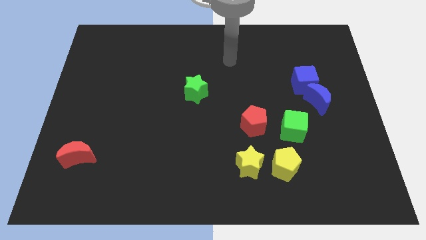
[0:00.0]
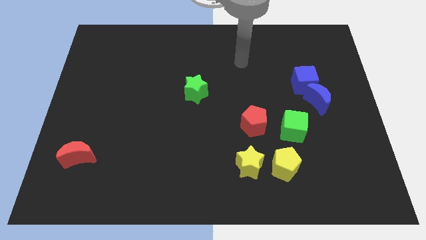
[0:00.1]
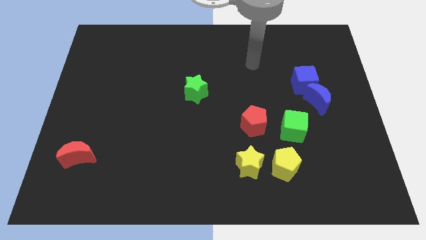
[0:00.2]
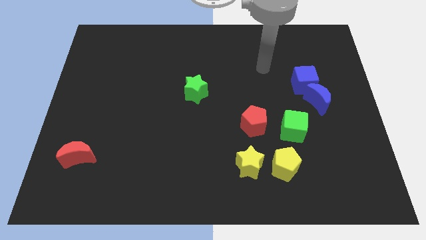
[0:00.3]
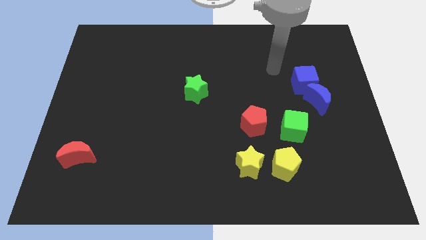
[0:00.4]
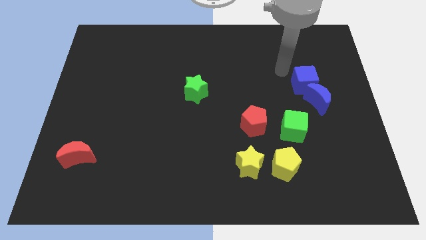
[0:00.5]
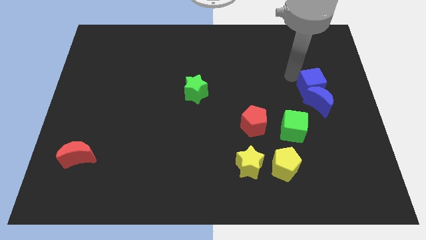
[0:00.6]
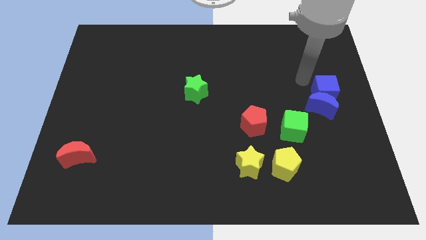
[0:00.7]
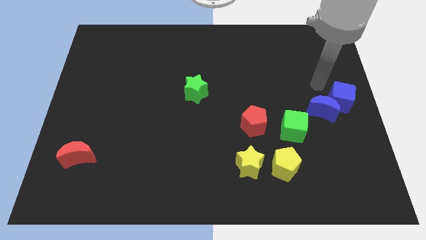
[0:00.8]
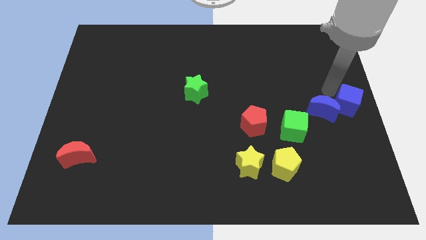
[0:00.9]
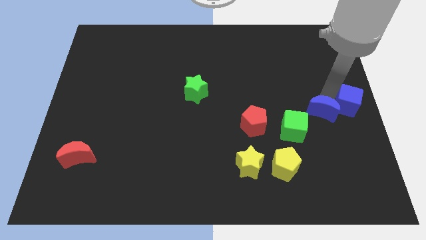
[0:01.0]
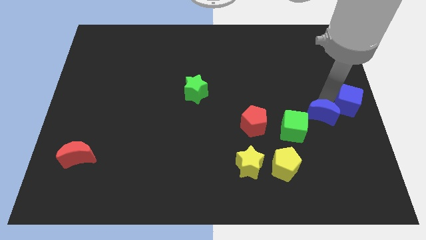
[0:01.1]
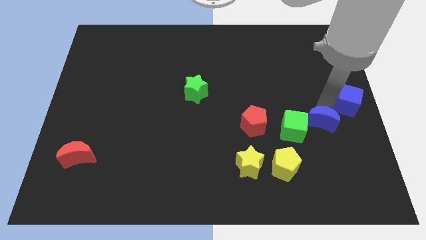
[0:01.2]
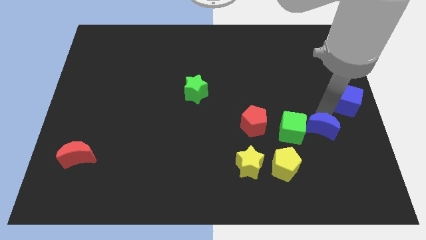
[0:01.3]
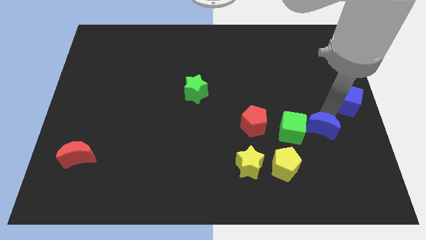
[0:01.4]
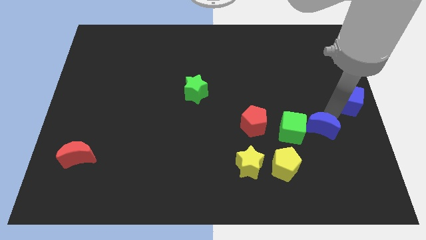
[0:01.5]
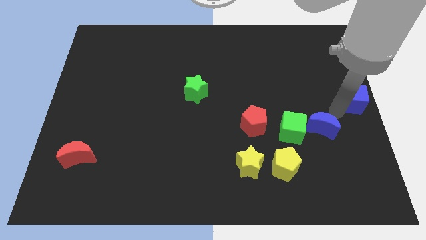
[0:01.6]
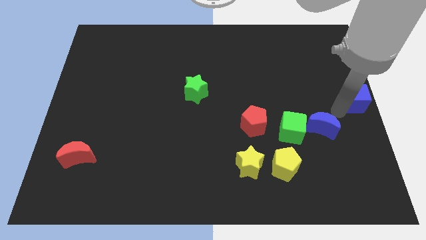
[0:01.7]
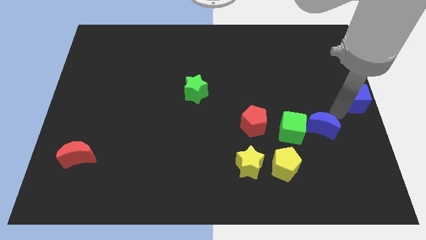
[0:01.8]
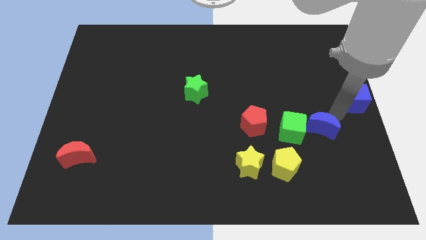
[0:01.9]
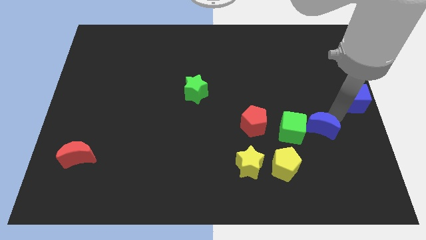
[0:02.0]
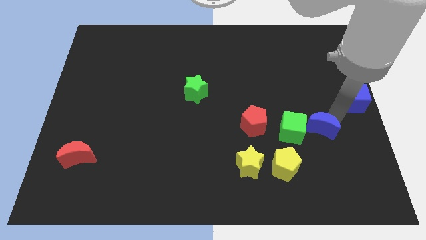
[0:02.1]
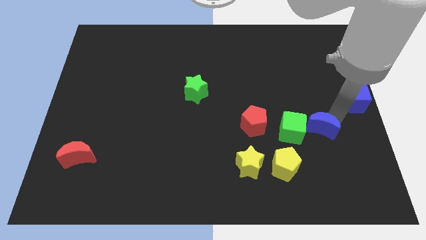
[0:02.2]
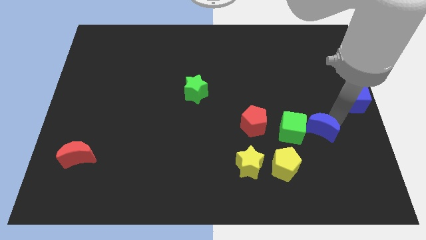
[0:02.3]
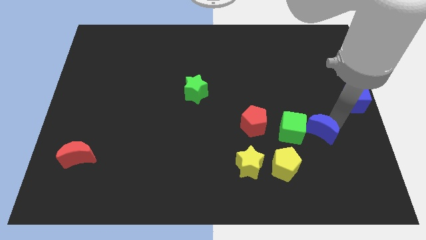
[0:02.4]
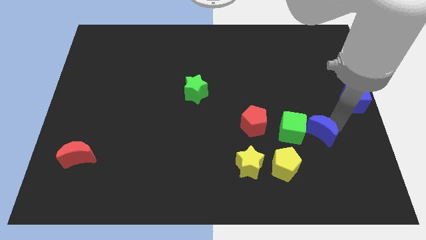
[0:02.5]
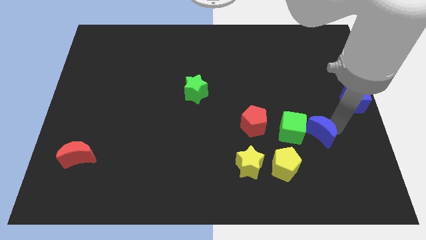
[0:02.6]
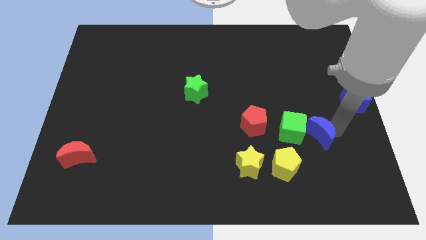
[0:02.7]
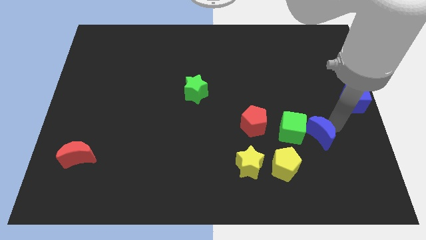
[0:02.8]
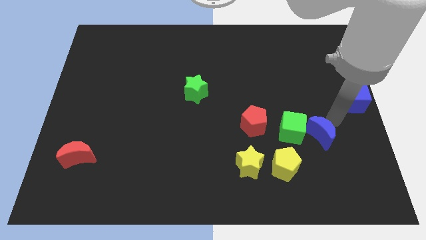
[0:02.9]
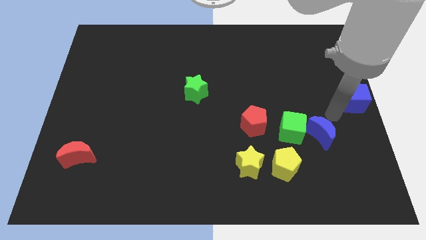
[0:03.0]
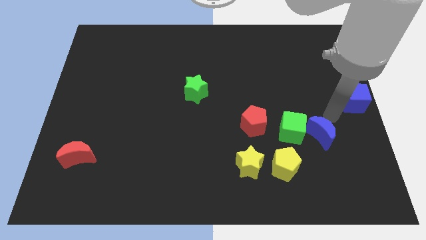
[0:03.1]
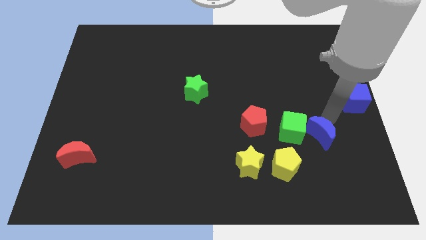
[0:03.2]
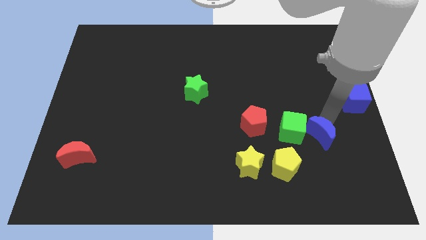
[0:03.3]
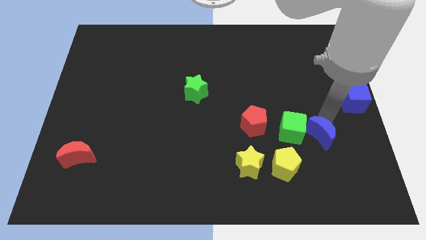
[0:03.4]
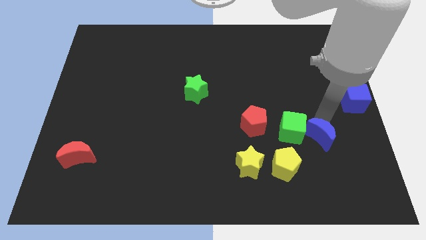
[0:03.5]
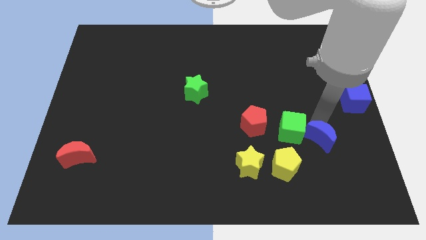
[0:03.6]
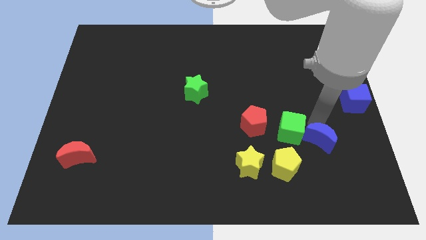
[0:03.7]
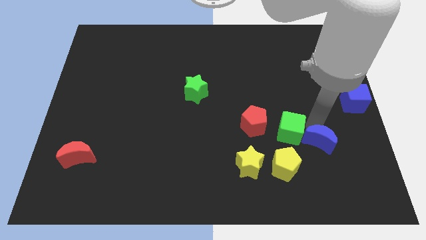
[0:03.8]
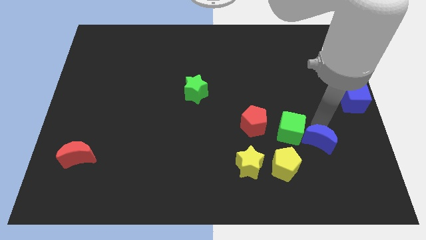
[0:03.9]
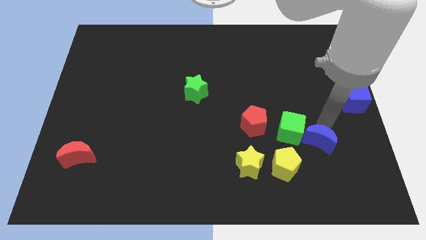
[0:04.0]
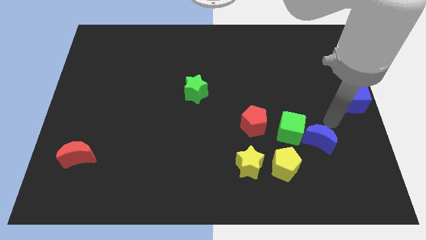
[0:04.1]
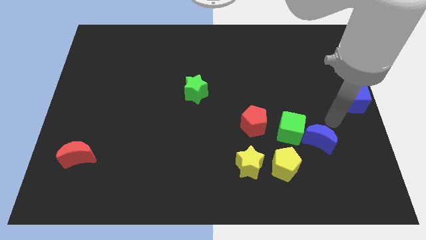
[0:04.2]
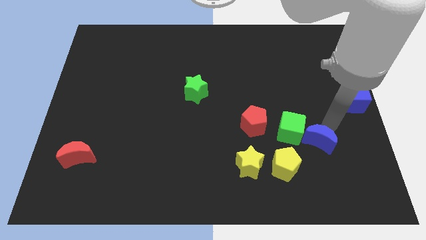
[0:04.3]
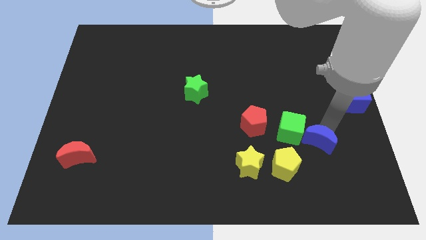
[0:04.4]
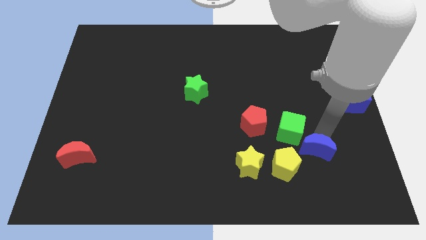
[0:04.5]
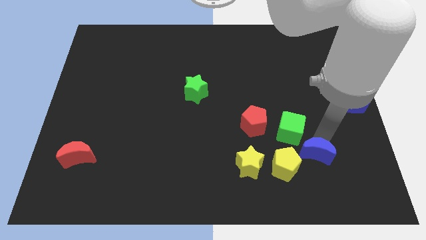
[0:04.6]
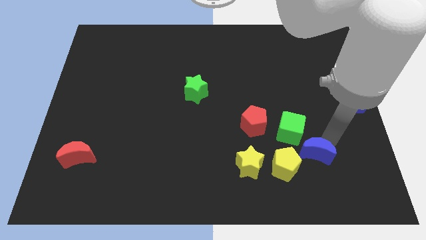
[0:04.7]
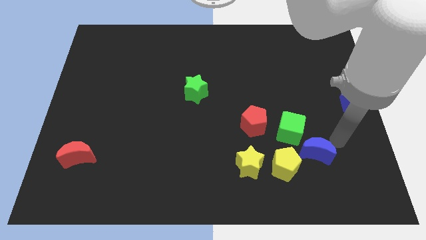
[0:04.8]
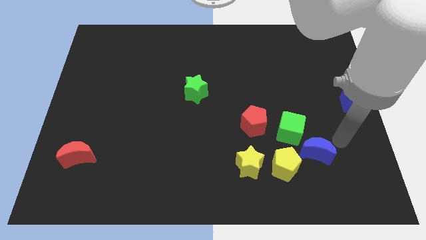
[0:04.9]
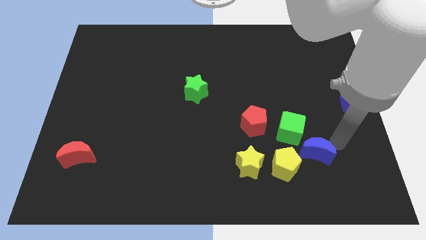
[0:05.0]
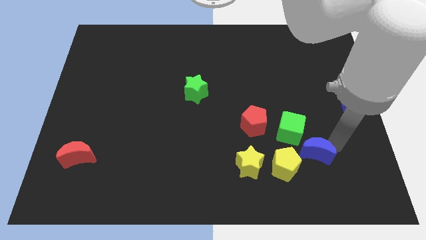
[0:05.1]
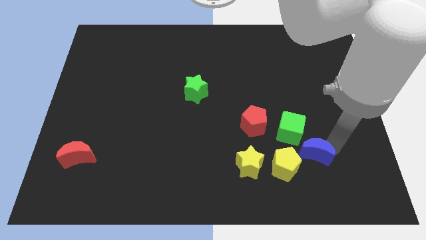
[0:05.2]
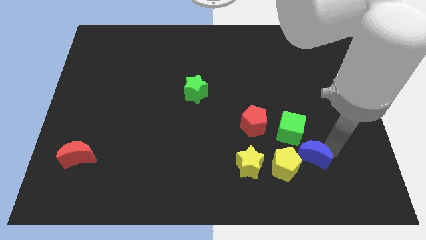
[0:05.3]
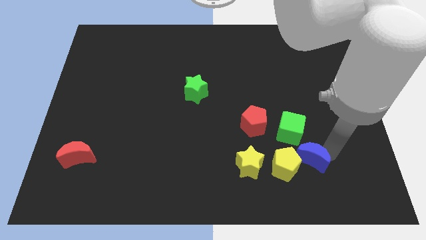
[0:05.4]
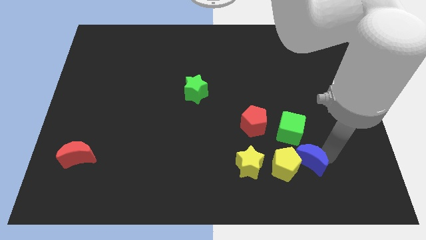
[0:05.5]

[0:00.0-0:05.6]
move the blue moon to the yellow pentagon

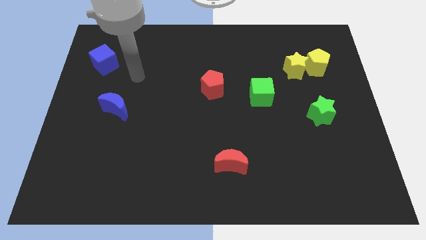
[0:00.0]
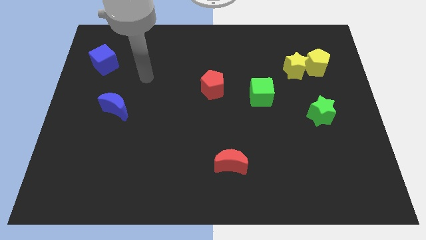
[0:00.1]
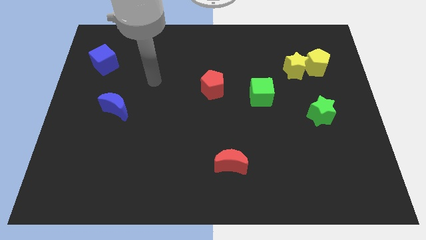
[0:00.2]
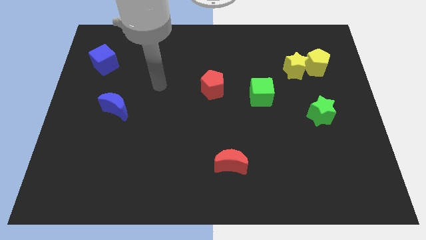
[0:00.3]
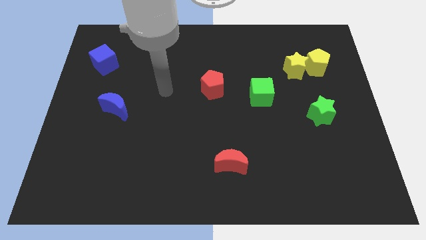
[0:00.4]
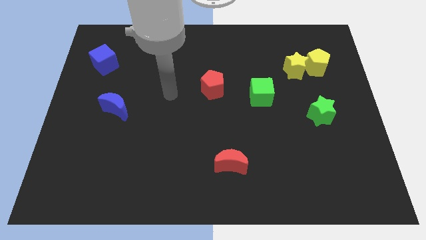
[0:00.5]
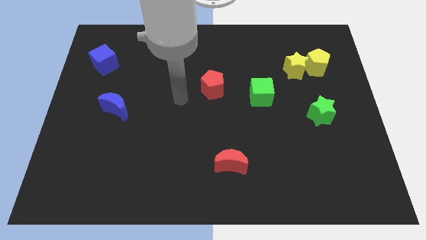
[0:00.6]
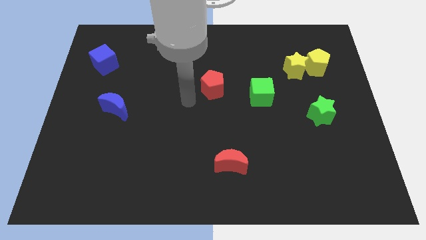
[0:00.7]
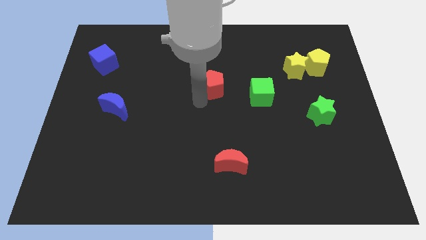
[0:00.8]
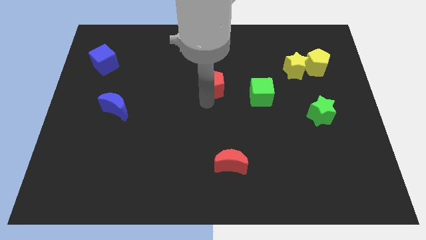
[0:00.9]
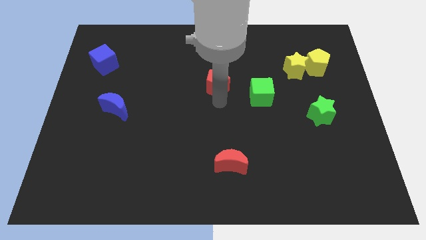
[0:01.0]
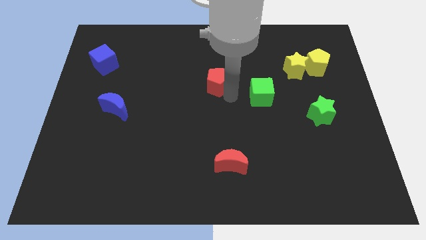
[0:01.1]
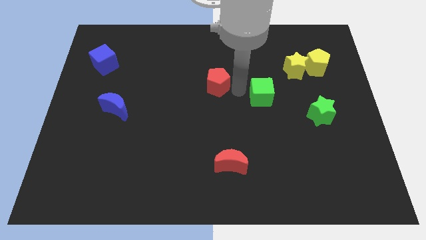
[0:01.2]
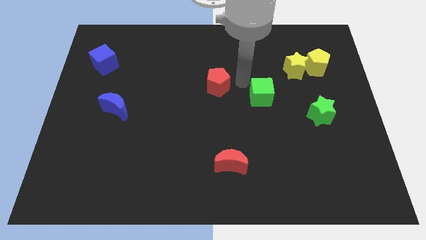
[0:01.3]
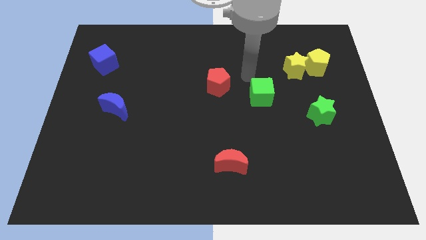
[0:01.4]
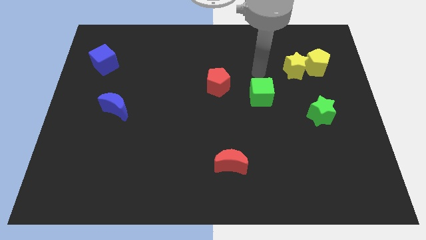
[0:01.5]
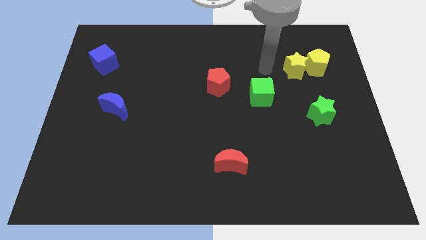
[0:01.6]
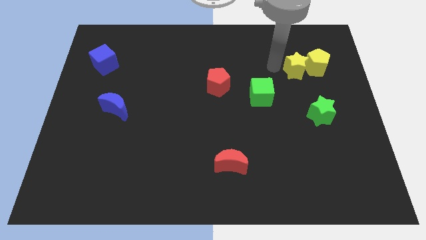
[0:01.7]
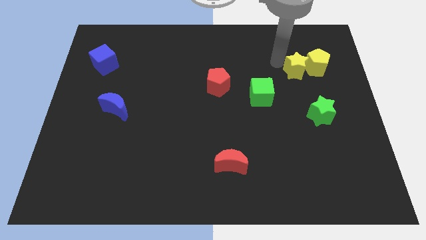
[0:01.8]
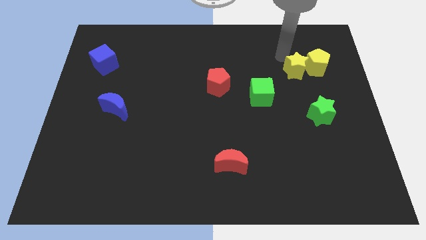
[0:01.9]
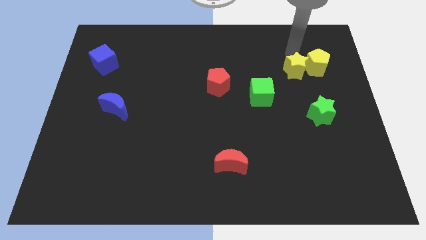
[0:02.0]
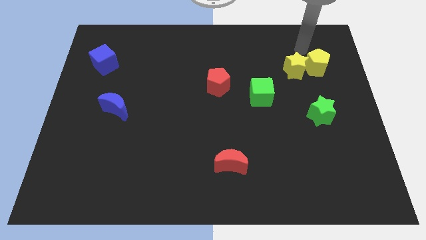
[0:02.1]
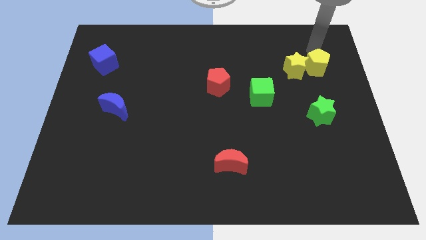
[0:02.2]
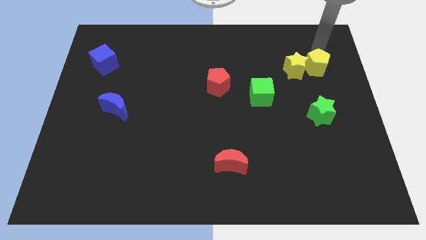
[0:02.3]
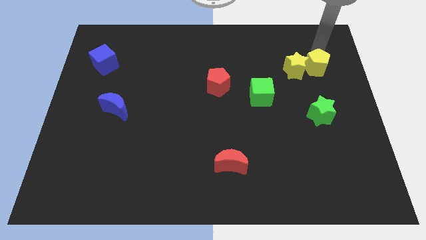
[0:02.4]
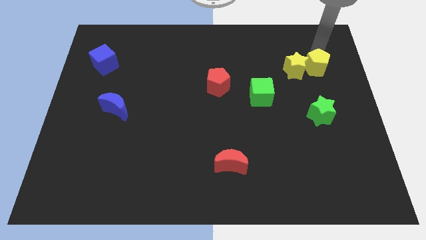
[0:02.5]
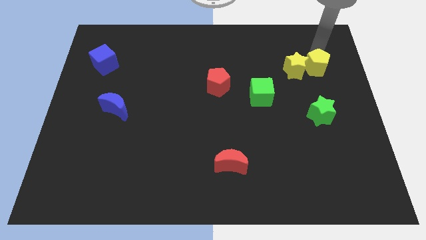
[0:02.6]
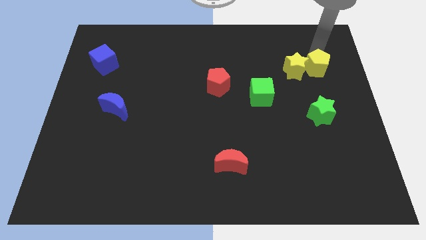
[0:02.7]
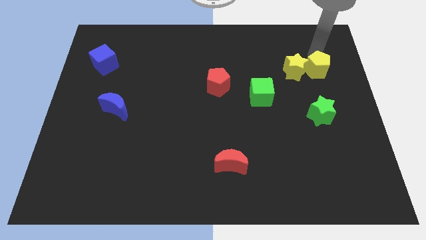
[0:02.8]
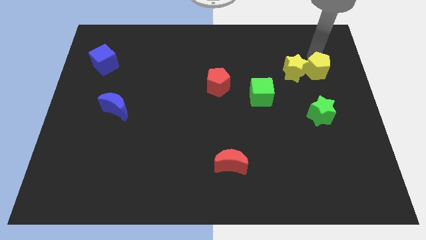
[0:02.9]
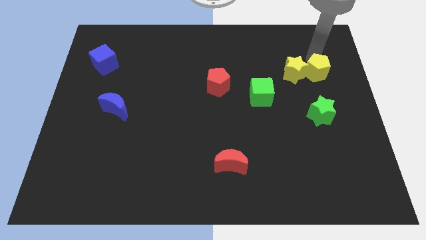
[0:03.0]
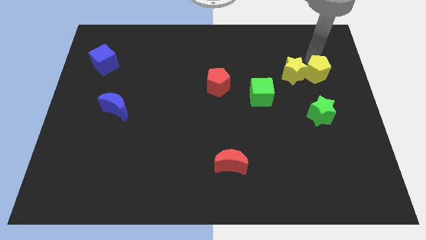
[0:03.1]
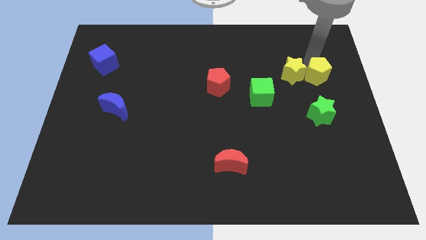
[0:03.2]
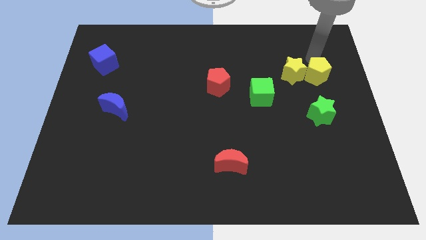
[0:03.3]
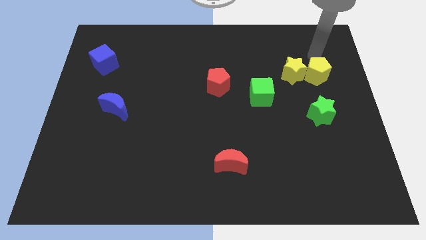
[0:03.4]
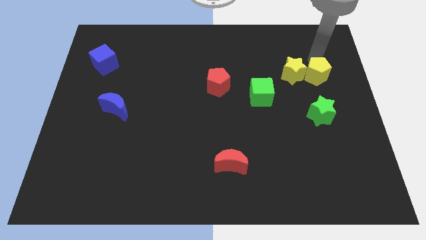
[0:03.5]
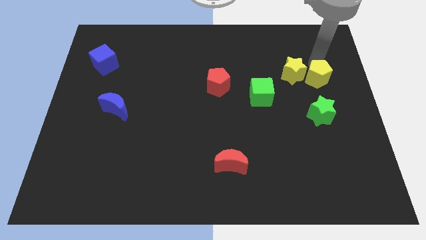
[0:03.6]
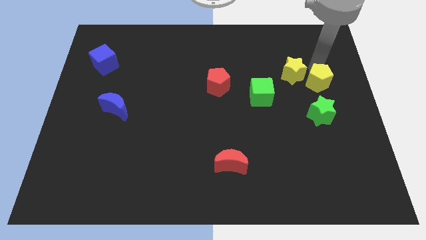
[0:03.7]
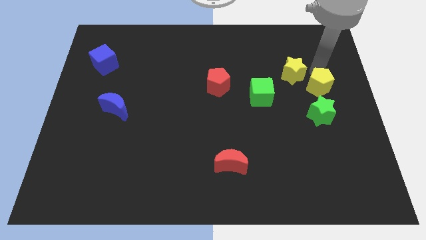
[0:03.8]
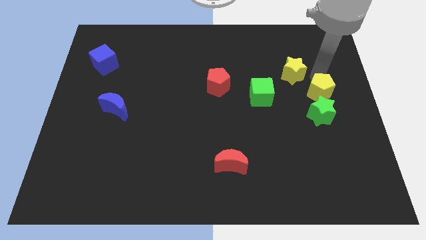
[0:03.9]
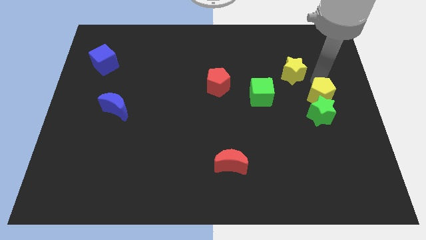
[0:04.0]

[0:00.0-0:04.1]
move the yellow pentagon towards the green star
